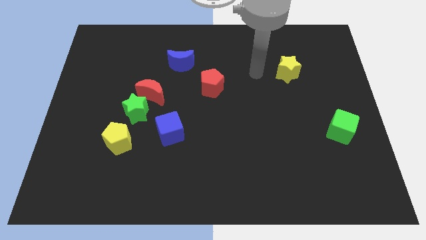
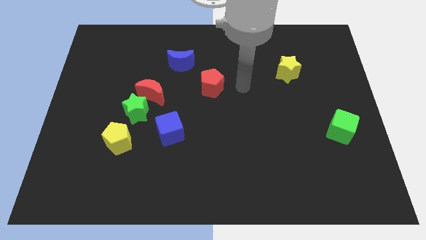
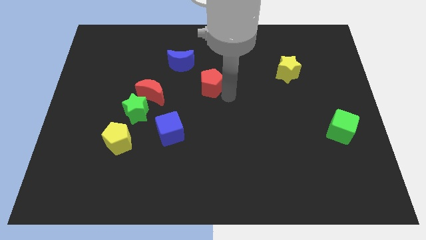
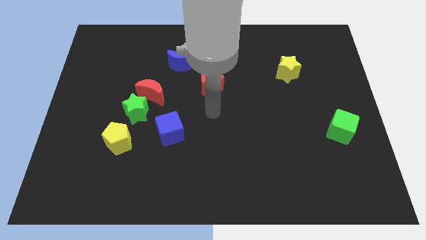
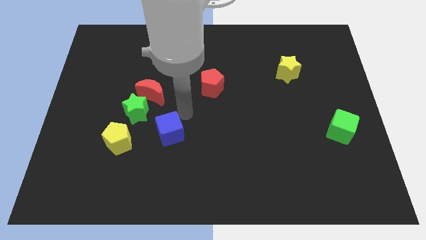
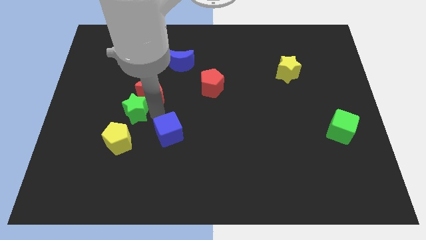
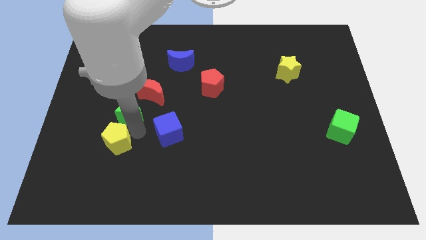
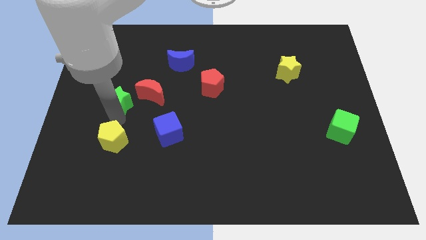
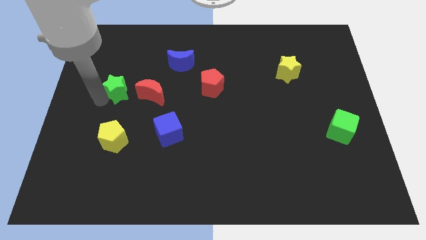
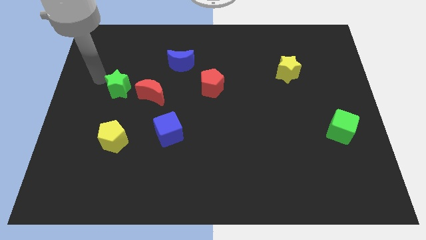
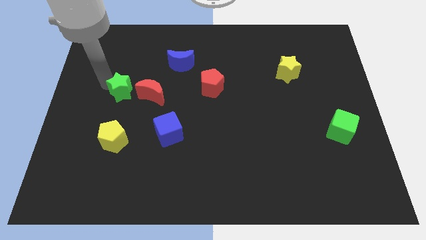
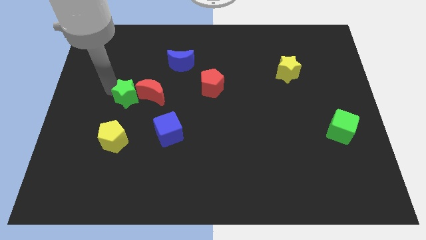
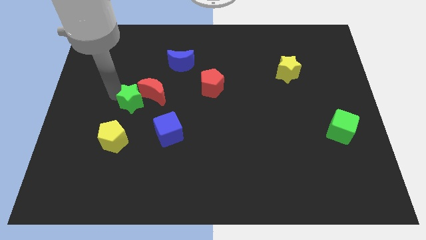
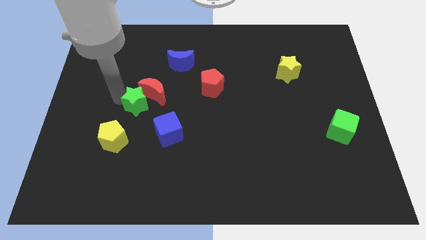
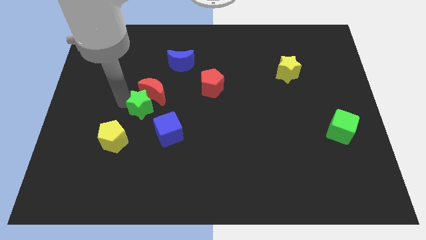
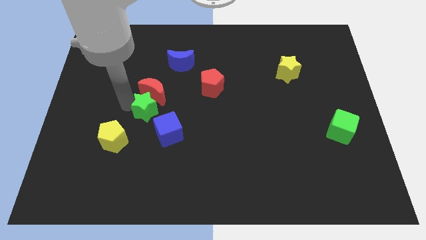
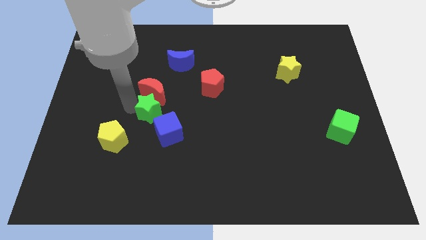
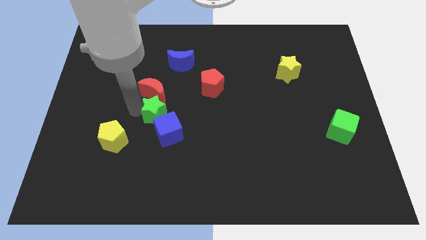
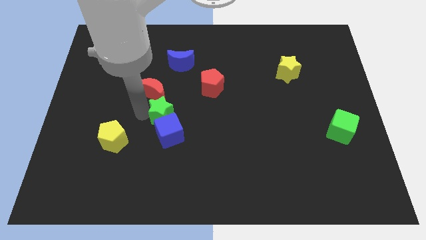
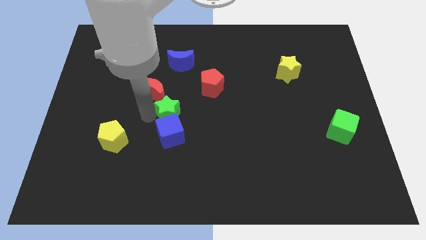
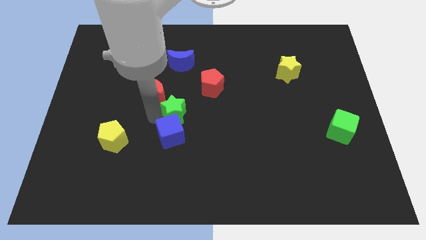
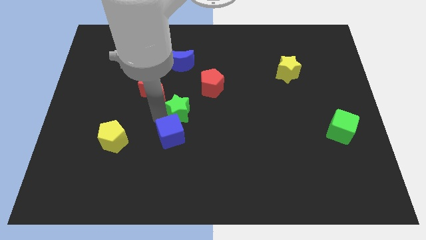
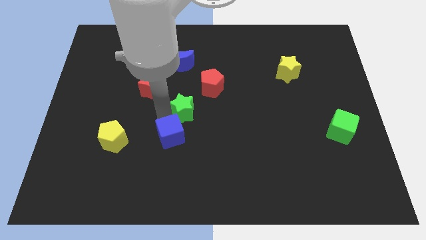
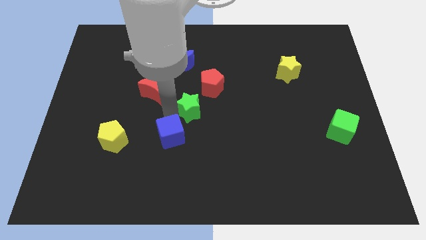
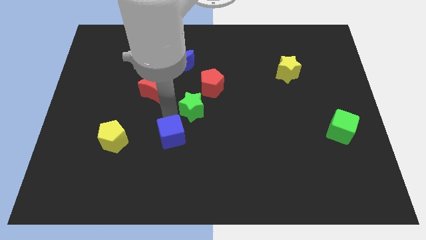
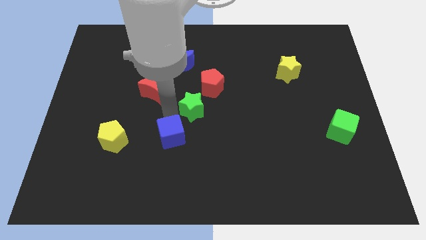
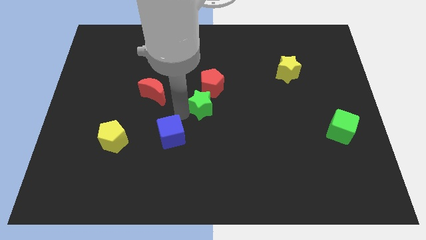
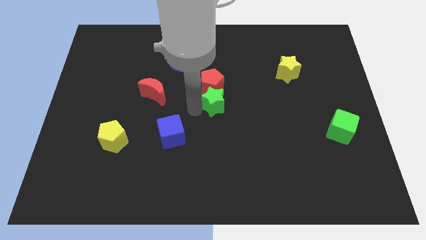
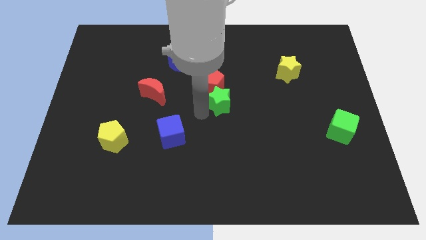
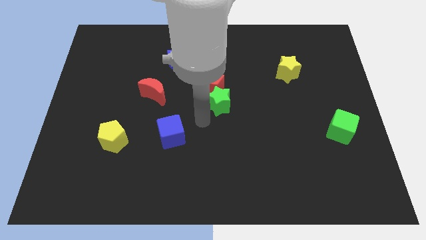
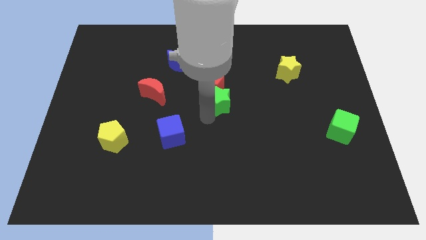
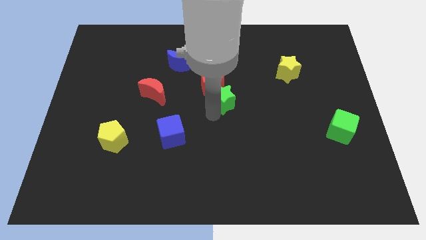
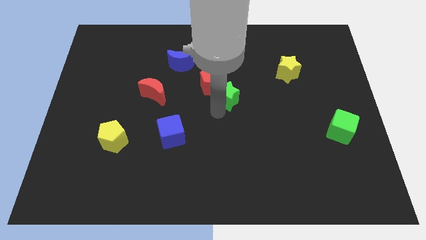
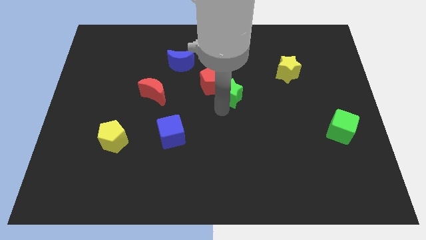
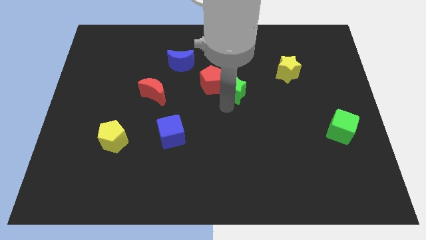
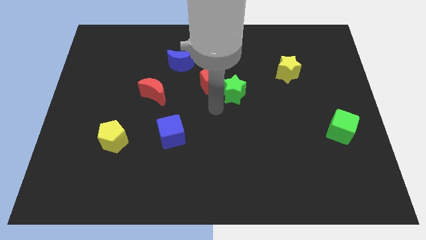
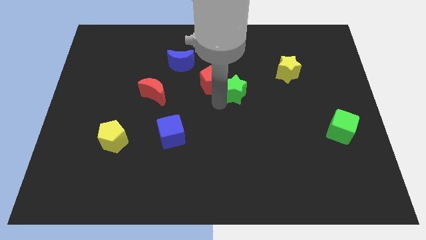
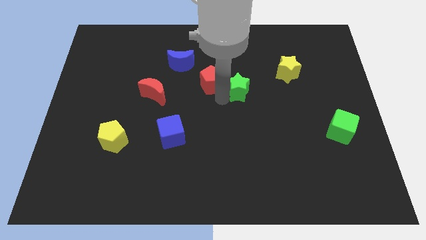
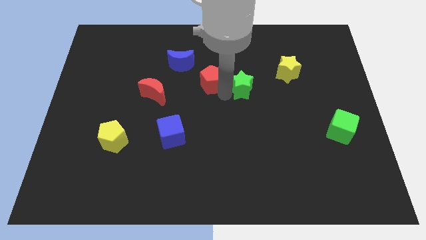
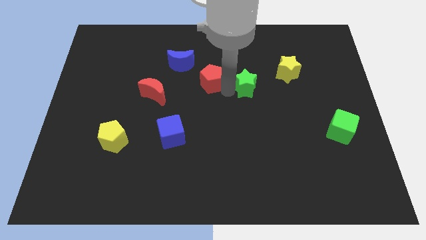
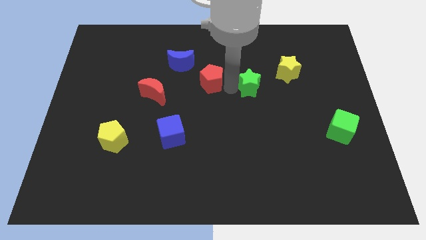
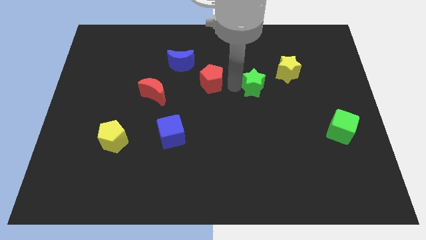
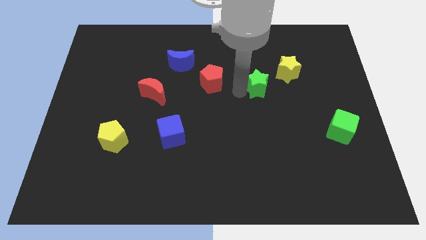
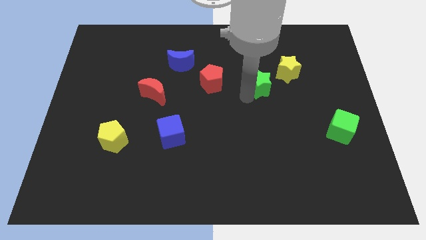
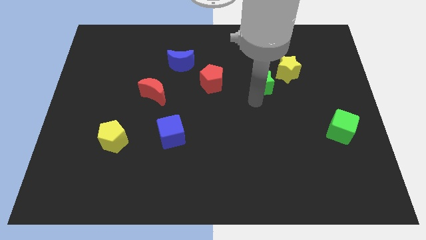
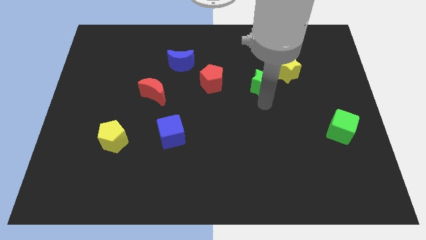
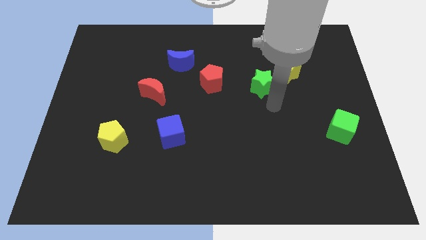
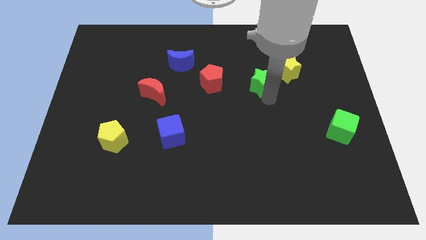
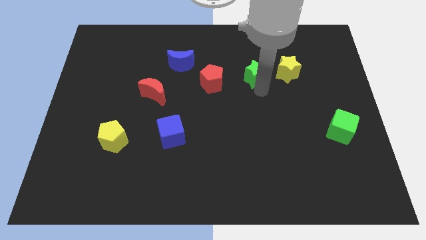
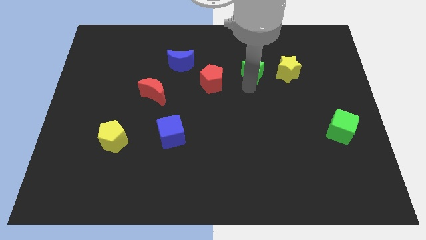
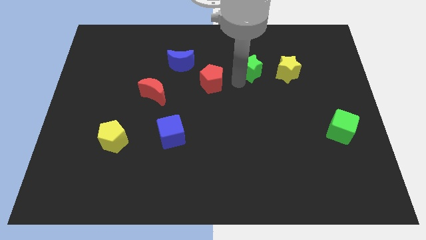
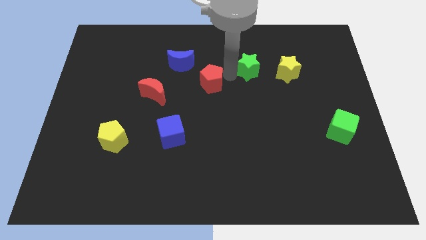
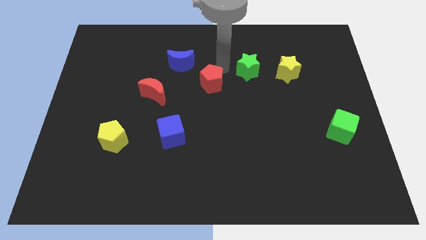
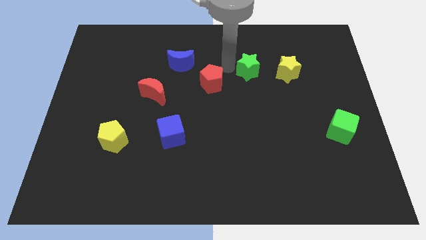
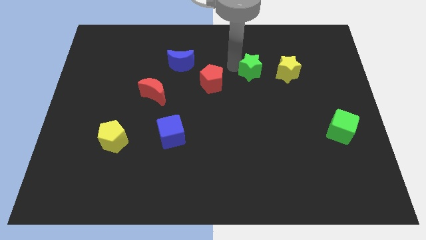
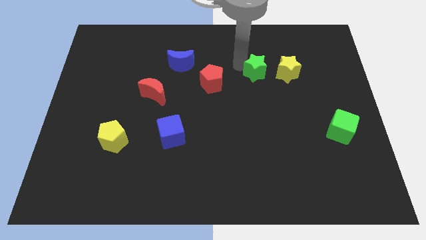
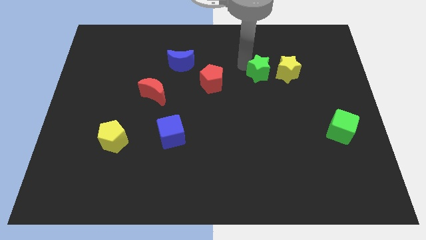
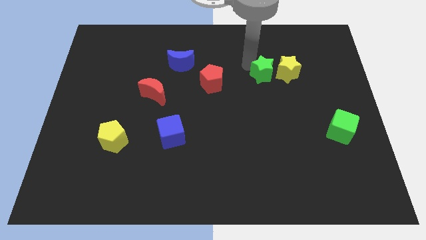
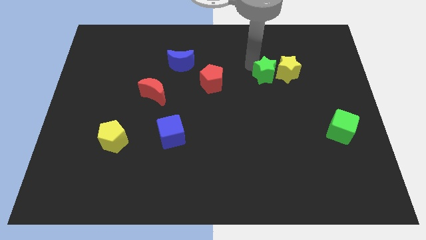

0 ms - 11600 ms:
push the green star to the yellow star

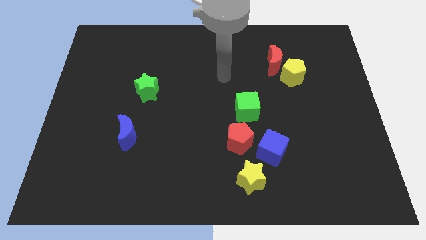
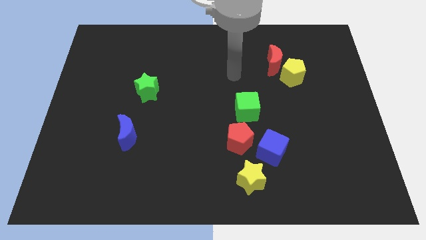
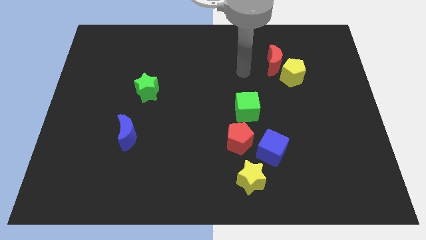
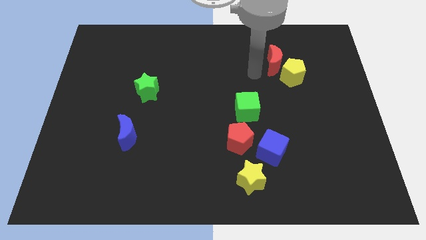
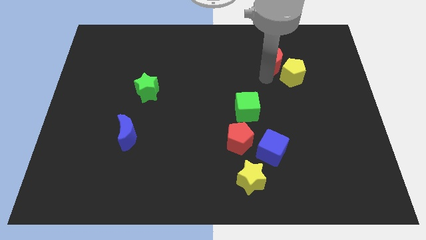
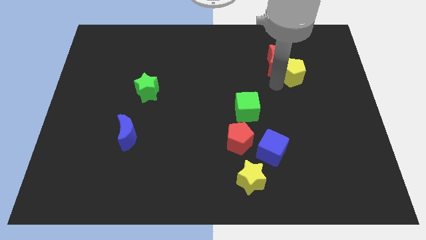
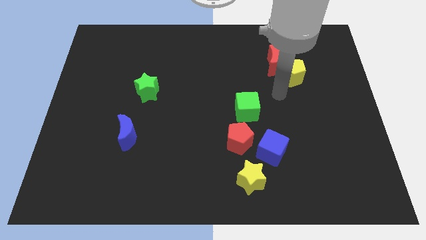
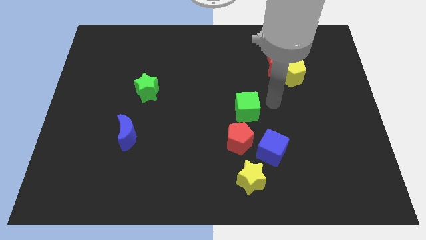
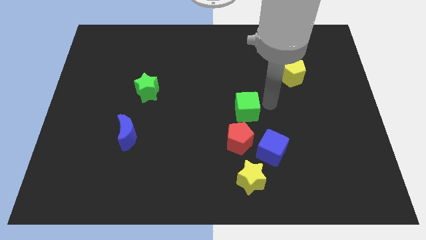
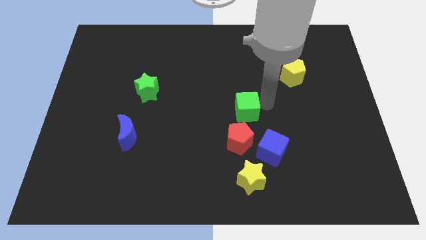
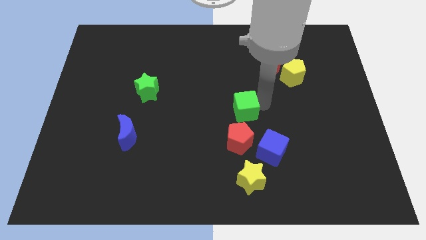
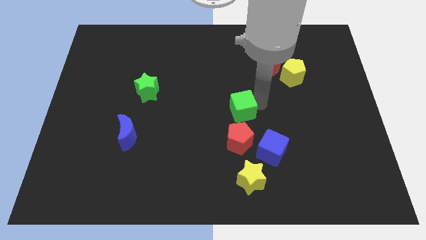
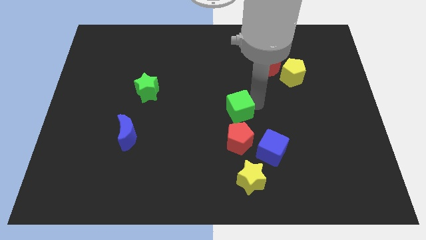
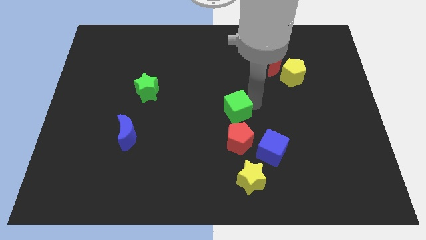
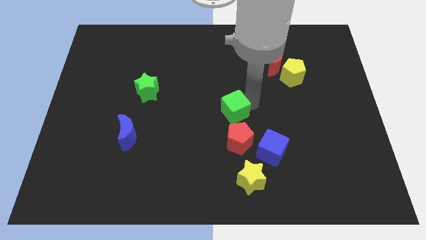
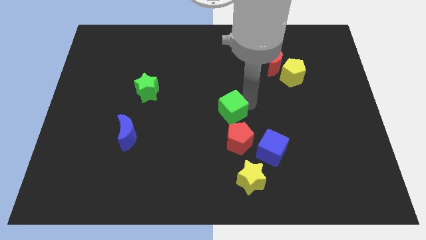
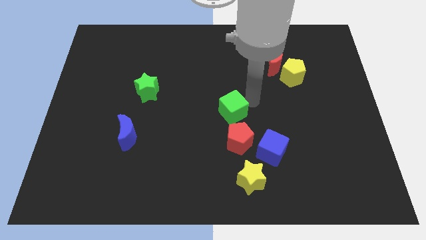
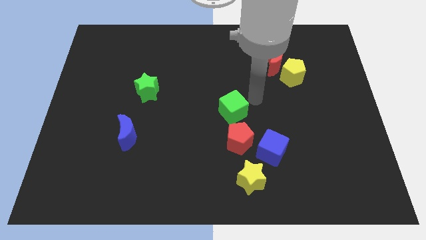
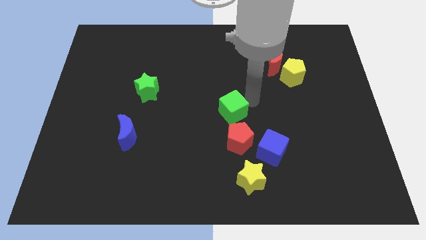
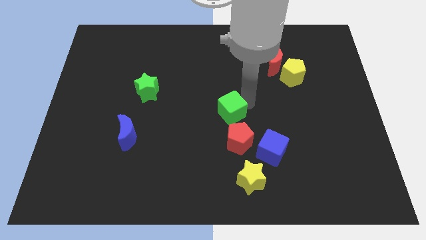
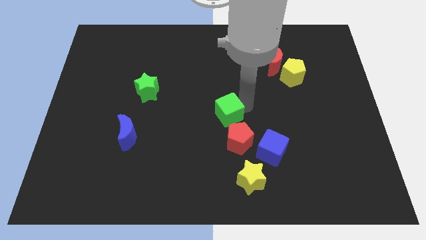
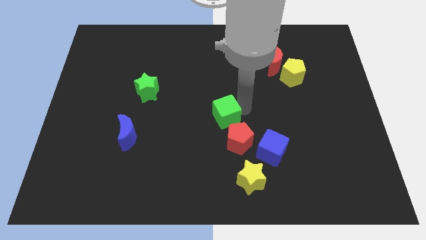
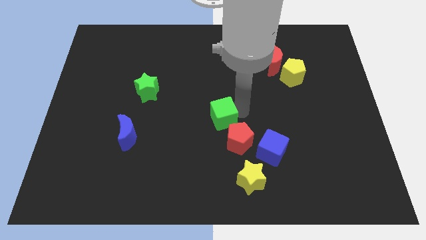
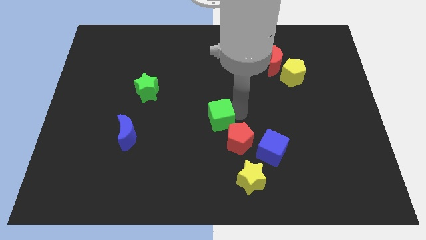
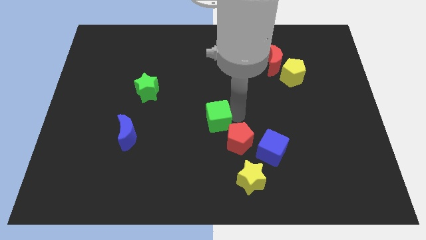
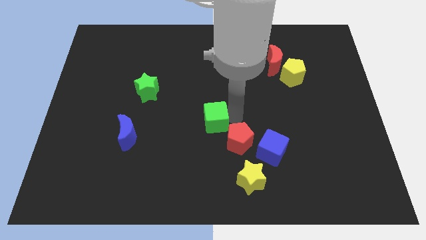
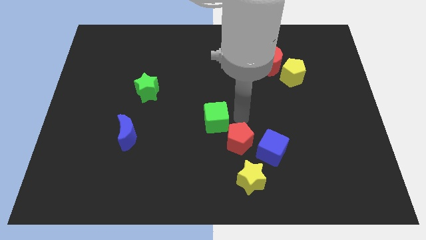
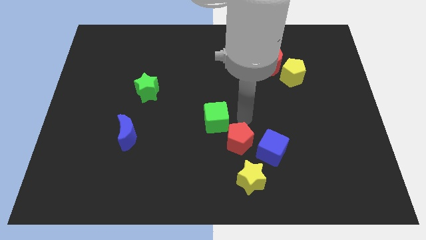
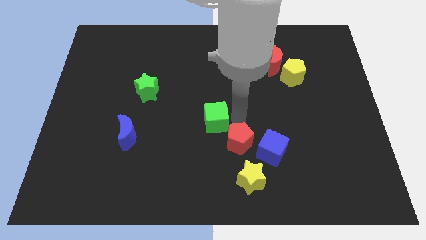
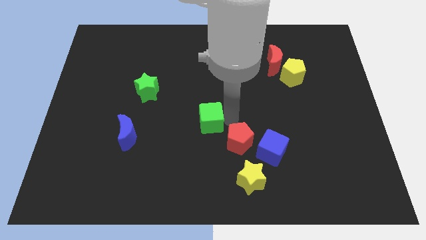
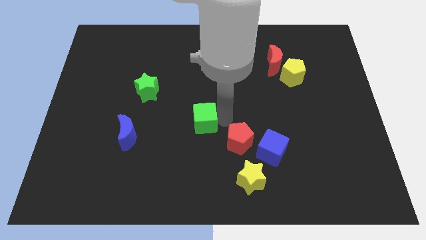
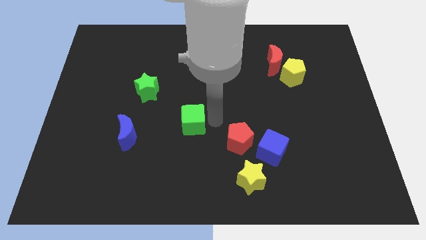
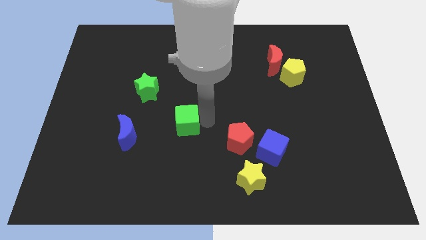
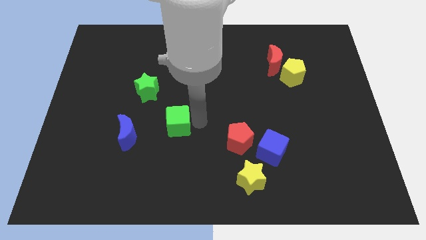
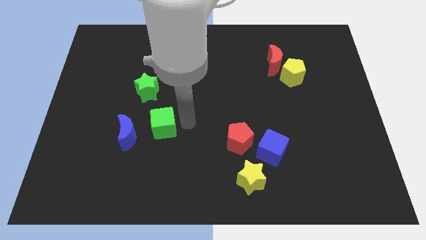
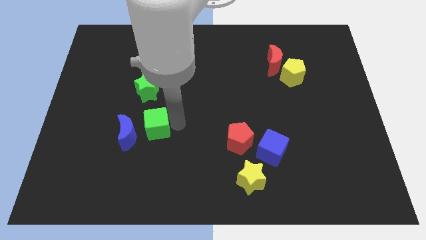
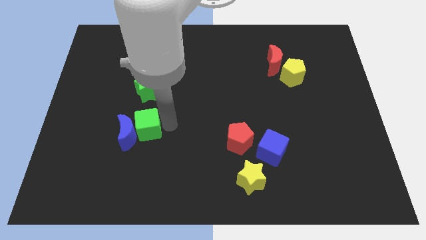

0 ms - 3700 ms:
move the green cube towards the blue moon
